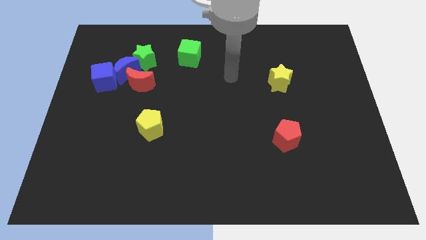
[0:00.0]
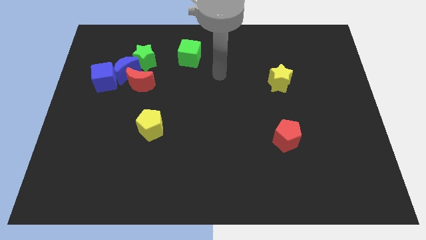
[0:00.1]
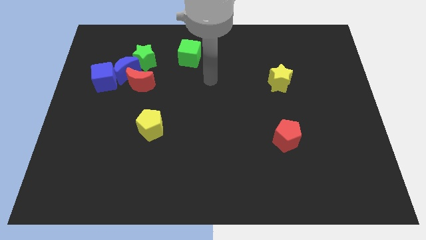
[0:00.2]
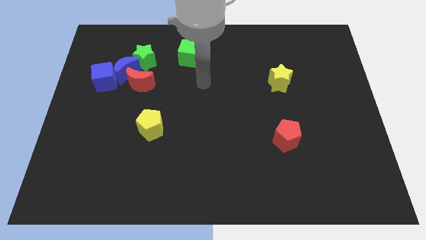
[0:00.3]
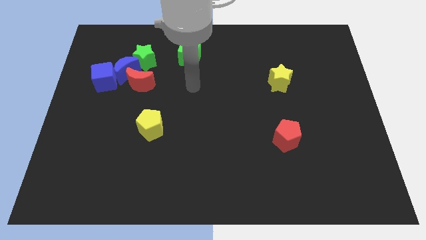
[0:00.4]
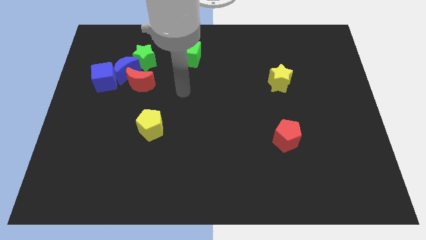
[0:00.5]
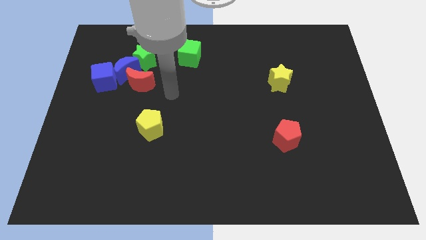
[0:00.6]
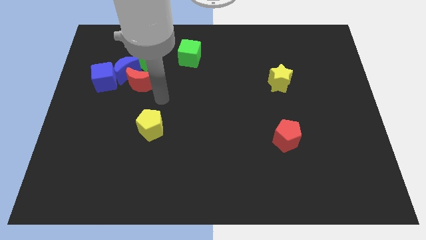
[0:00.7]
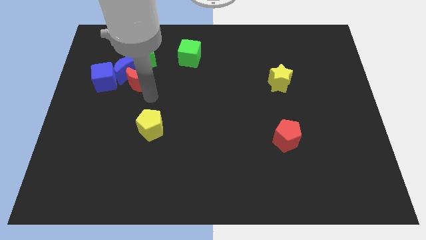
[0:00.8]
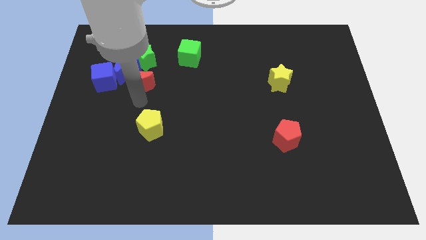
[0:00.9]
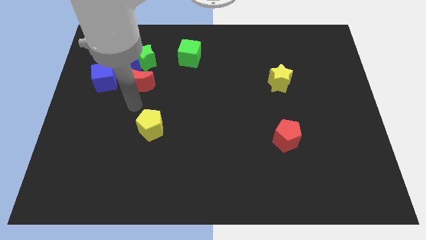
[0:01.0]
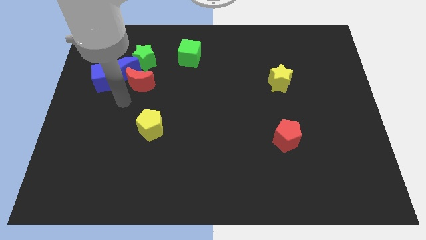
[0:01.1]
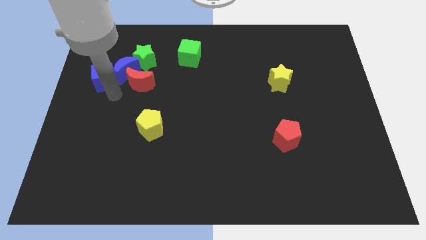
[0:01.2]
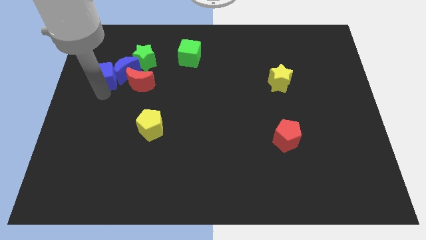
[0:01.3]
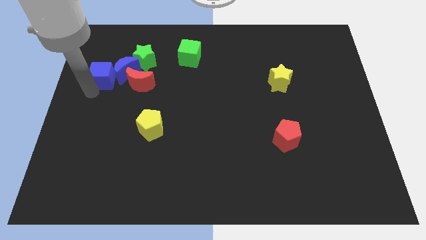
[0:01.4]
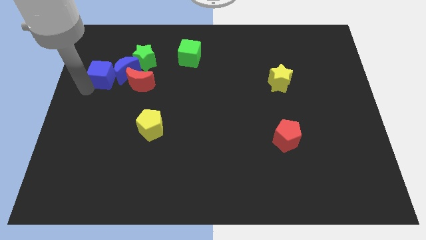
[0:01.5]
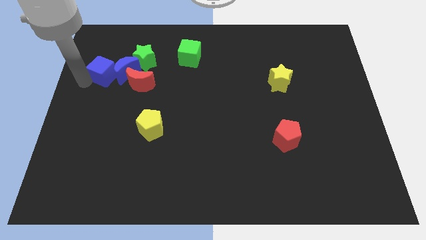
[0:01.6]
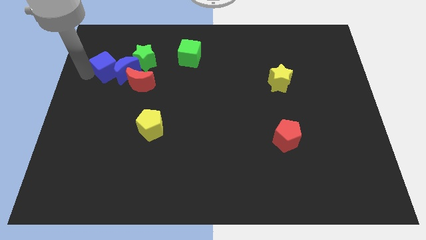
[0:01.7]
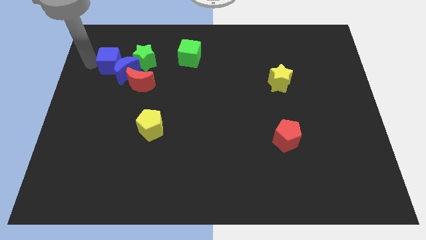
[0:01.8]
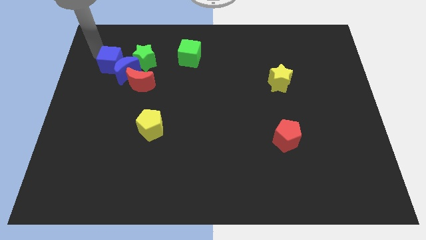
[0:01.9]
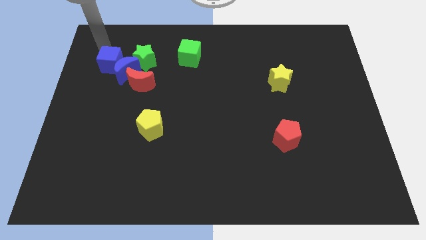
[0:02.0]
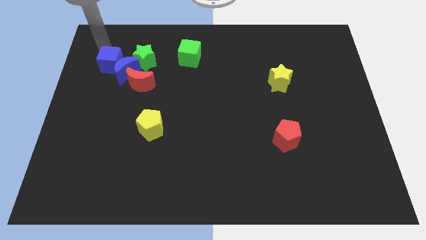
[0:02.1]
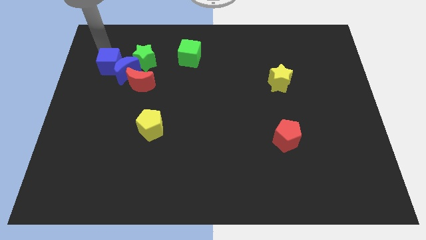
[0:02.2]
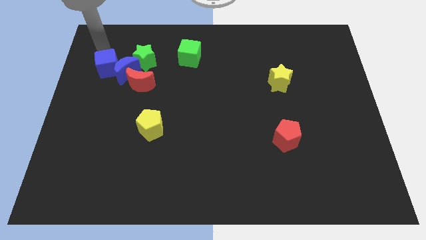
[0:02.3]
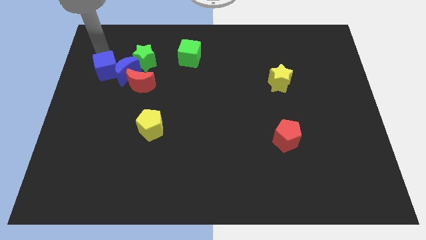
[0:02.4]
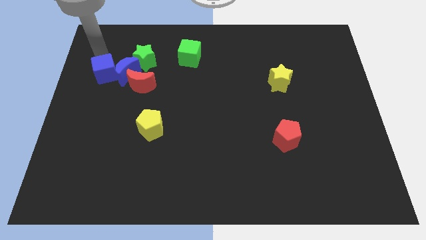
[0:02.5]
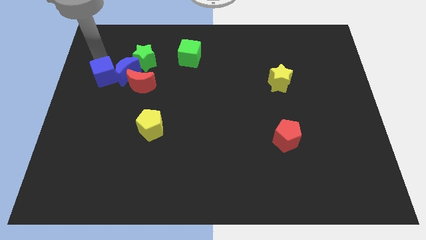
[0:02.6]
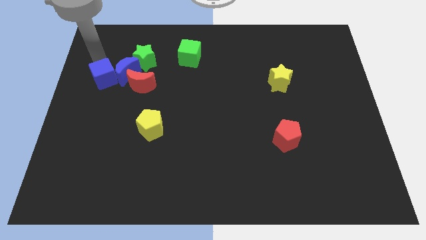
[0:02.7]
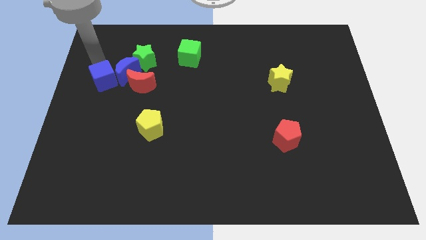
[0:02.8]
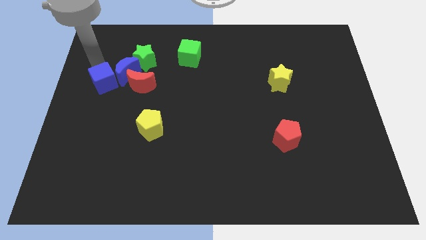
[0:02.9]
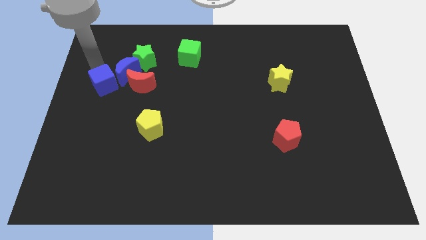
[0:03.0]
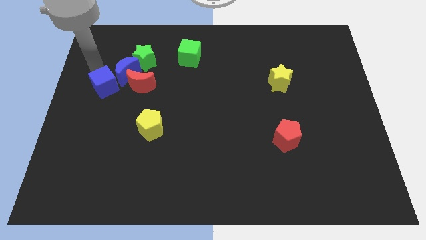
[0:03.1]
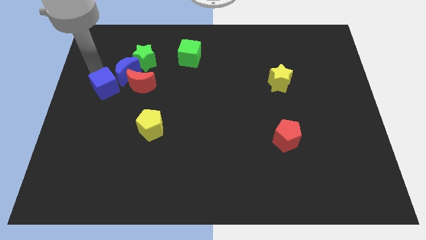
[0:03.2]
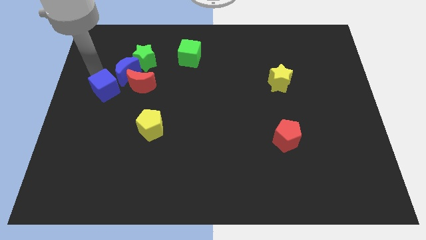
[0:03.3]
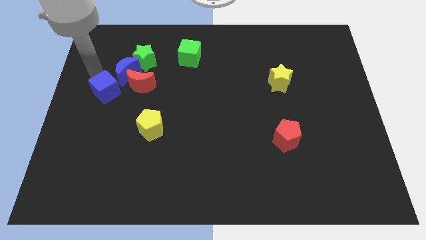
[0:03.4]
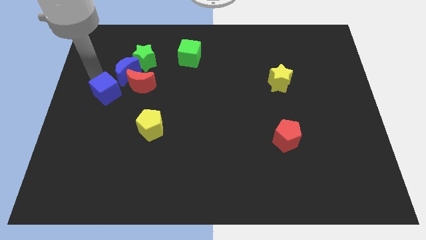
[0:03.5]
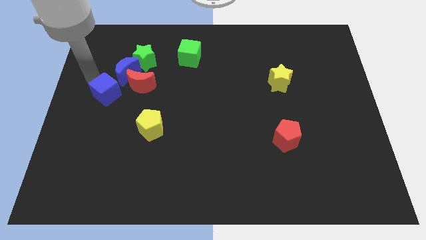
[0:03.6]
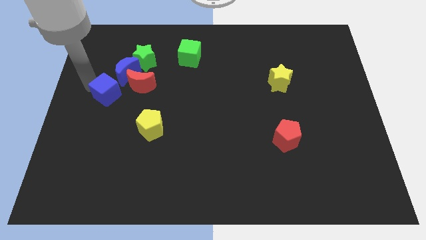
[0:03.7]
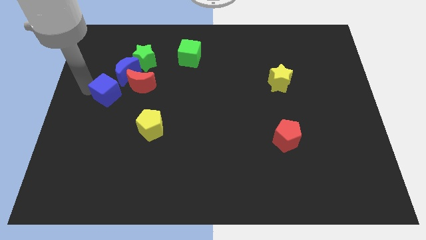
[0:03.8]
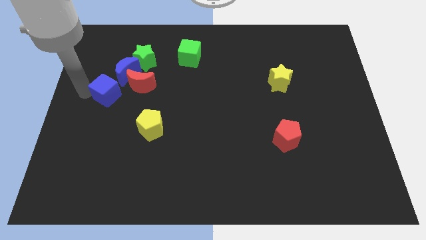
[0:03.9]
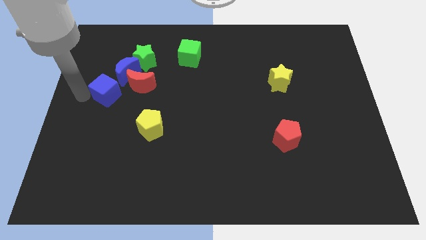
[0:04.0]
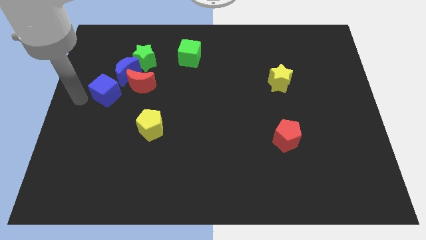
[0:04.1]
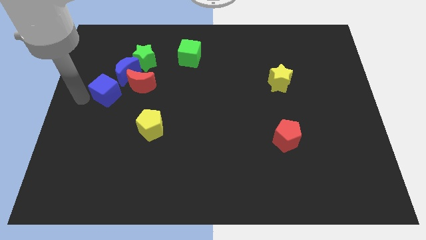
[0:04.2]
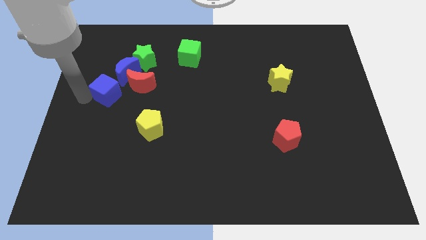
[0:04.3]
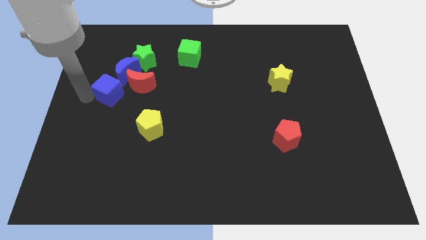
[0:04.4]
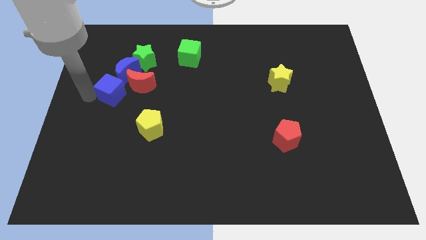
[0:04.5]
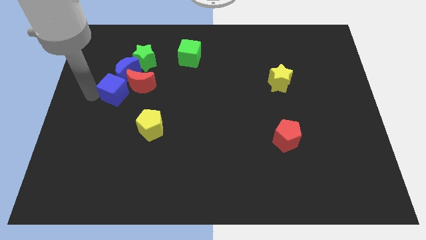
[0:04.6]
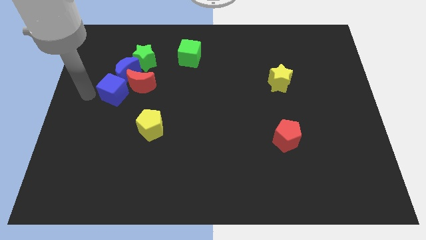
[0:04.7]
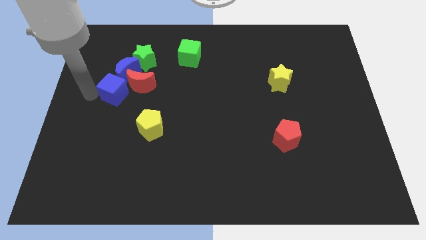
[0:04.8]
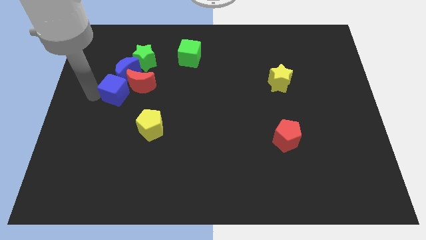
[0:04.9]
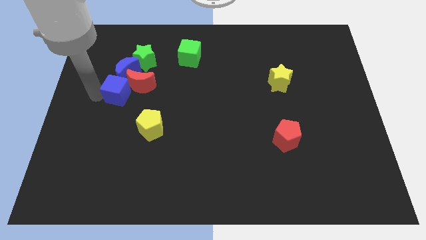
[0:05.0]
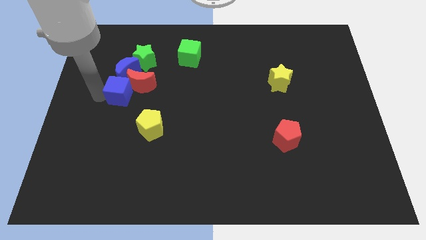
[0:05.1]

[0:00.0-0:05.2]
slide the blue cube to the bottom of the green star

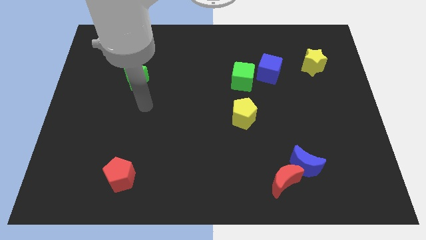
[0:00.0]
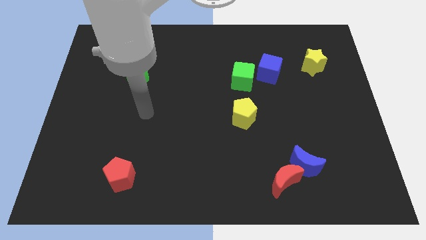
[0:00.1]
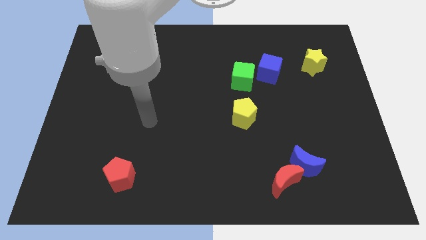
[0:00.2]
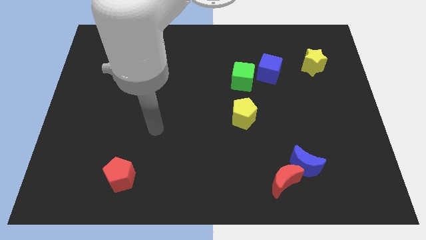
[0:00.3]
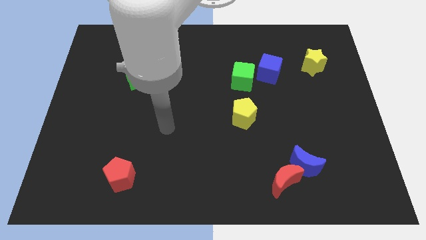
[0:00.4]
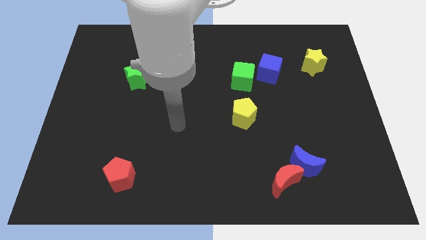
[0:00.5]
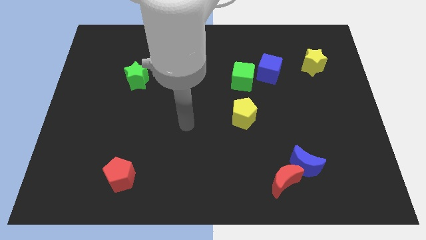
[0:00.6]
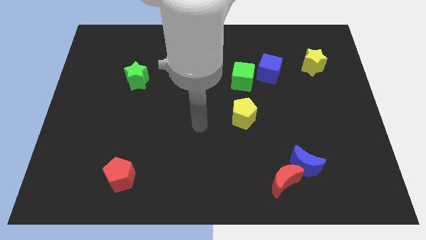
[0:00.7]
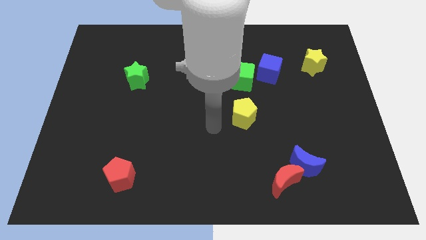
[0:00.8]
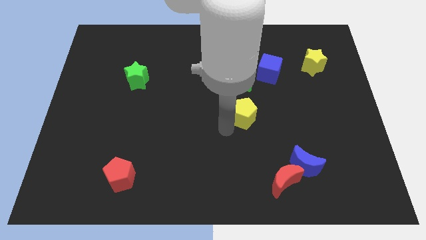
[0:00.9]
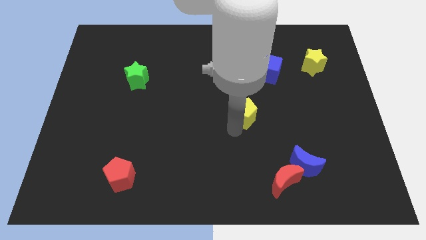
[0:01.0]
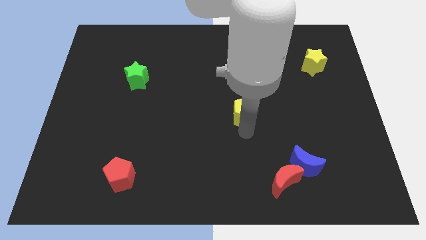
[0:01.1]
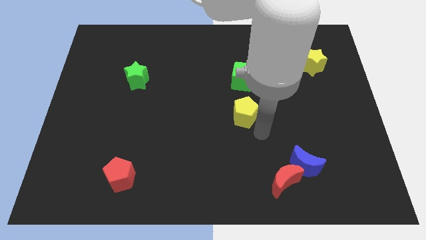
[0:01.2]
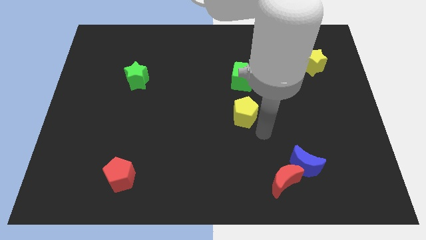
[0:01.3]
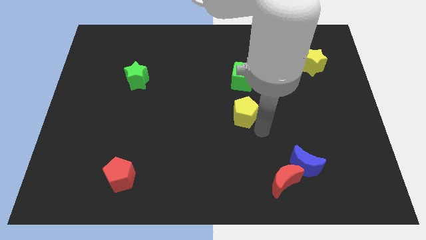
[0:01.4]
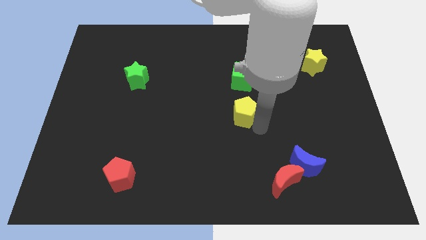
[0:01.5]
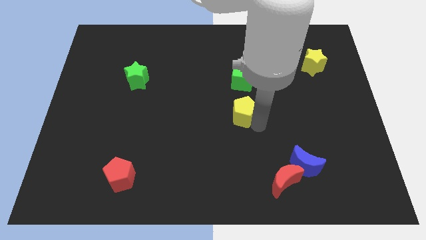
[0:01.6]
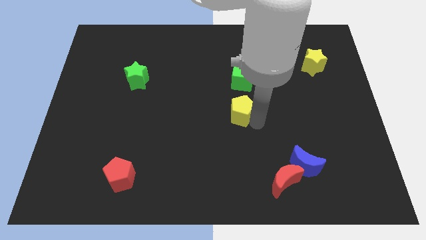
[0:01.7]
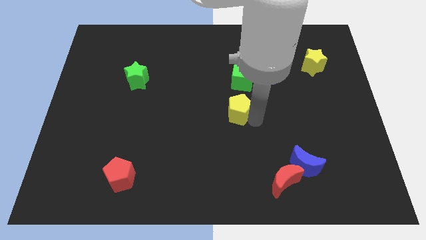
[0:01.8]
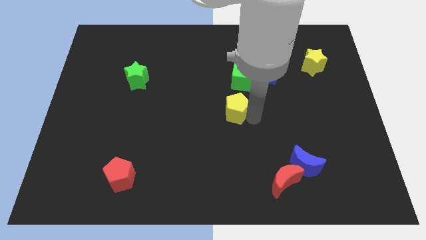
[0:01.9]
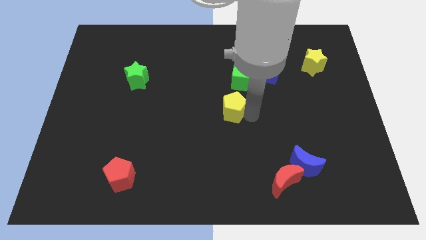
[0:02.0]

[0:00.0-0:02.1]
push the yellow pentagon to the bottom left of the green cube

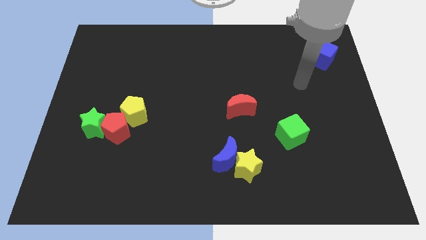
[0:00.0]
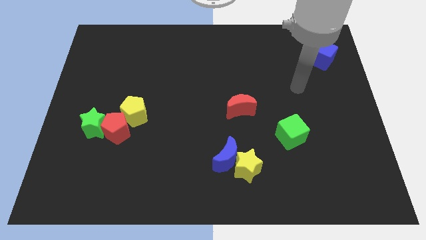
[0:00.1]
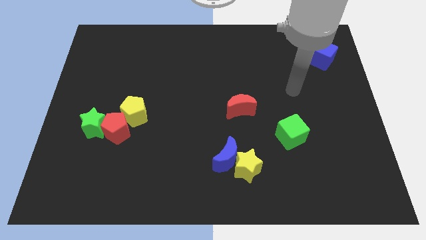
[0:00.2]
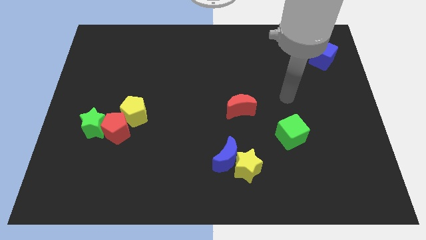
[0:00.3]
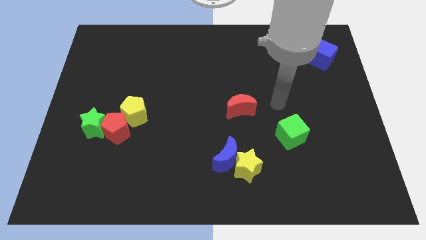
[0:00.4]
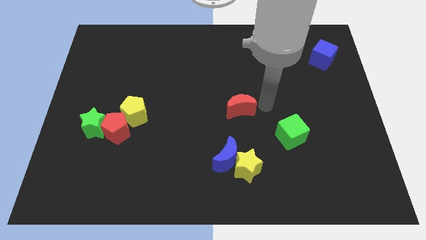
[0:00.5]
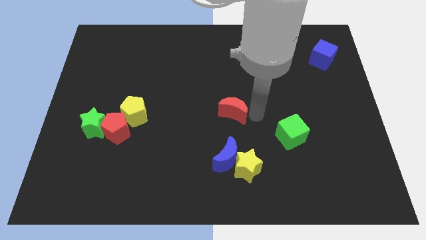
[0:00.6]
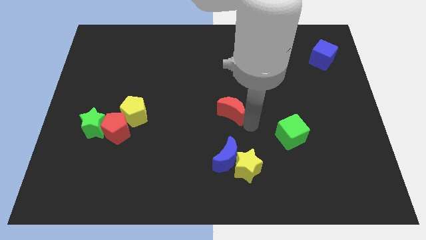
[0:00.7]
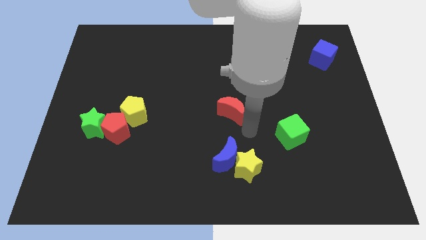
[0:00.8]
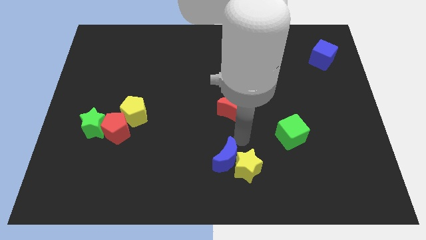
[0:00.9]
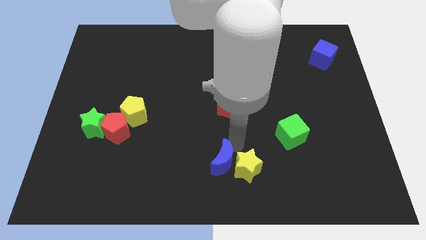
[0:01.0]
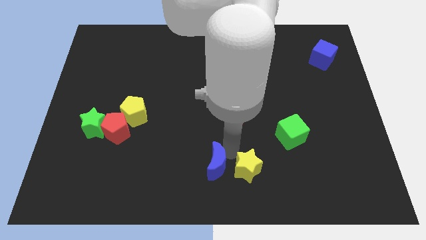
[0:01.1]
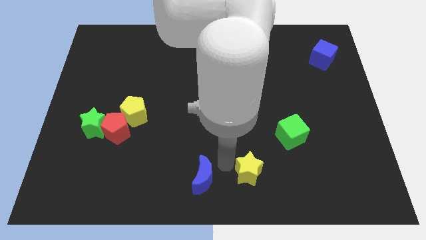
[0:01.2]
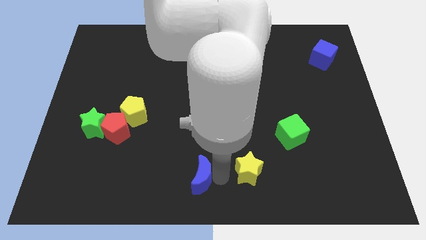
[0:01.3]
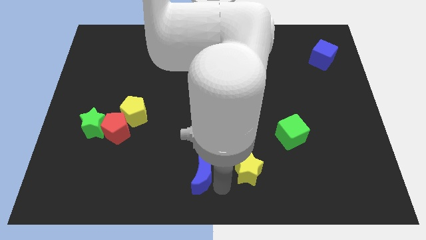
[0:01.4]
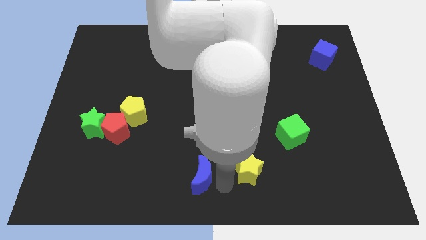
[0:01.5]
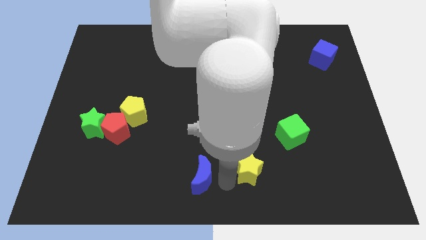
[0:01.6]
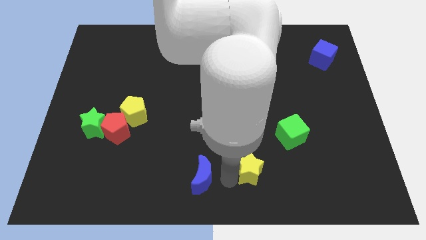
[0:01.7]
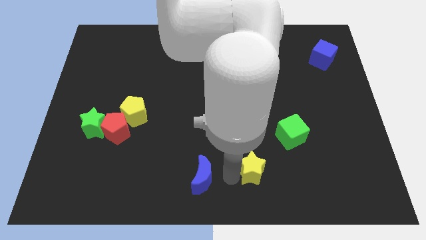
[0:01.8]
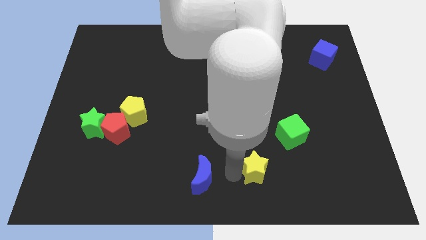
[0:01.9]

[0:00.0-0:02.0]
slide the yellow star to the bottom left of the green cube
